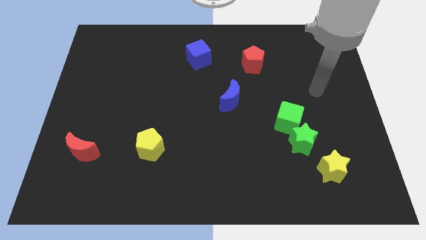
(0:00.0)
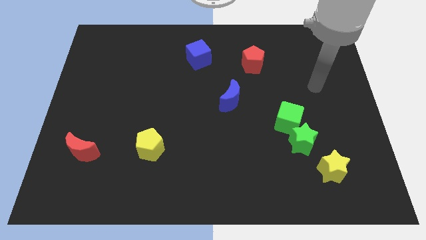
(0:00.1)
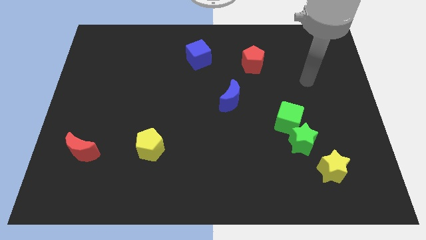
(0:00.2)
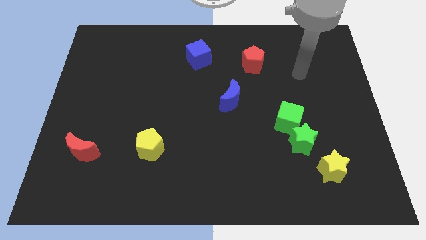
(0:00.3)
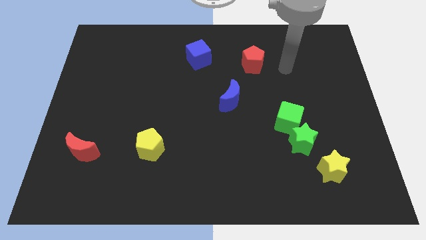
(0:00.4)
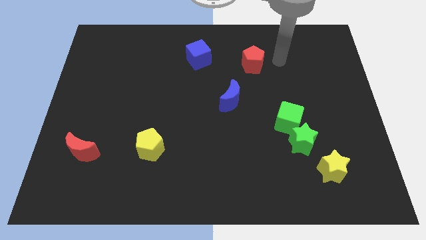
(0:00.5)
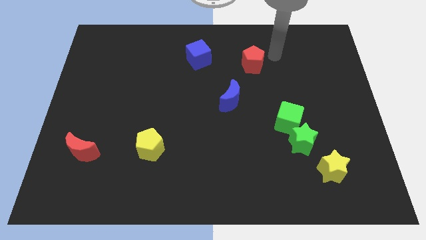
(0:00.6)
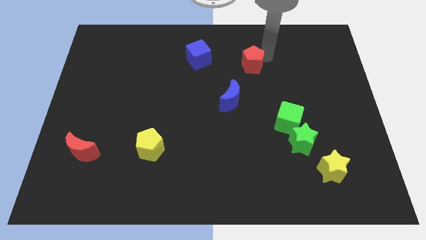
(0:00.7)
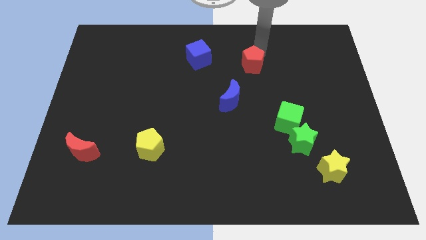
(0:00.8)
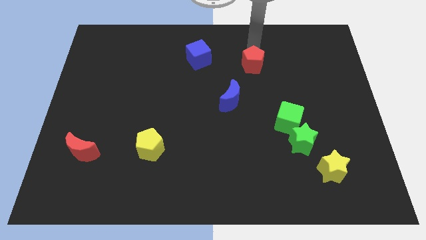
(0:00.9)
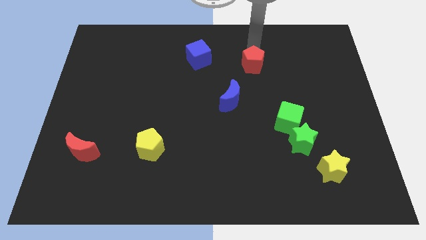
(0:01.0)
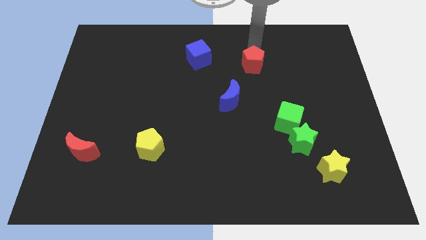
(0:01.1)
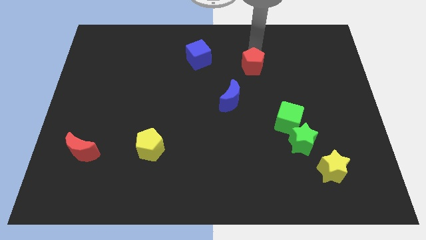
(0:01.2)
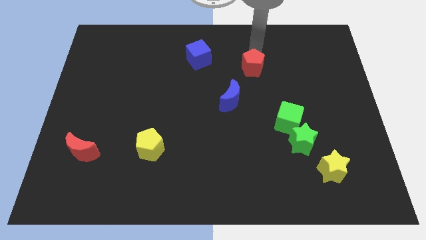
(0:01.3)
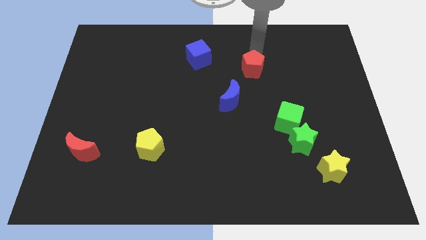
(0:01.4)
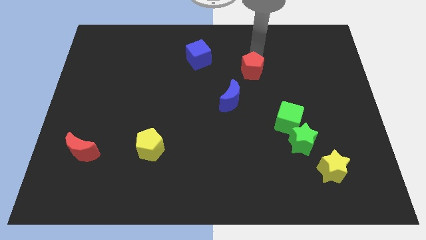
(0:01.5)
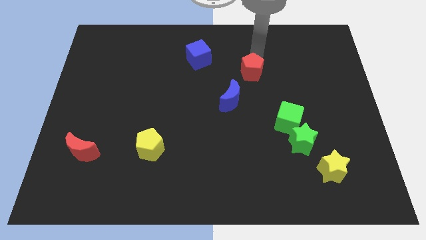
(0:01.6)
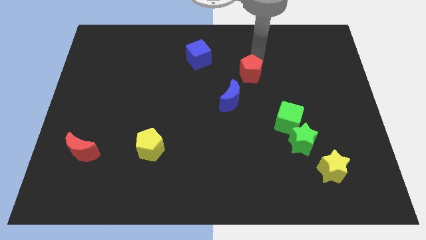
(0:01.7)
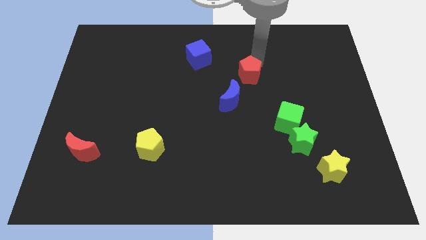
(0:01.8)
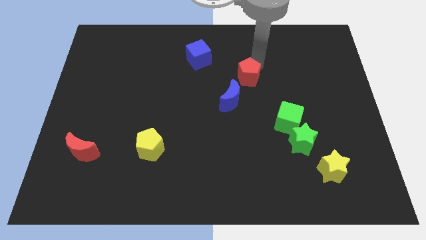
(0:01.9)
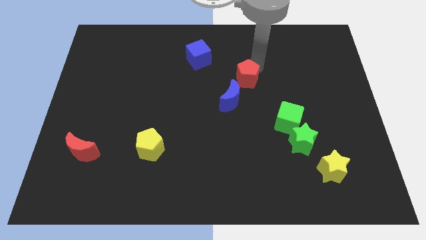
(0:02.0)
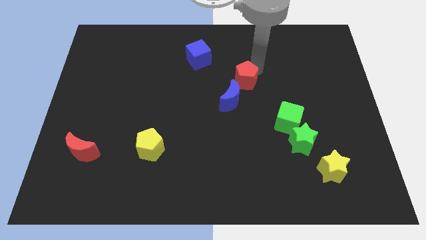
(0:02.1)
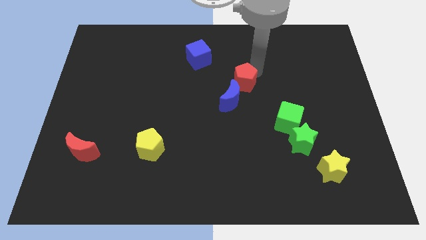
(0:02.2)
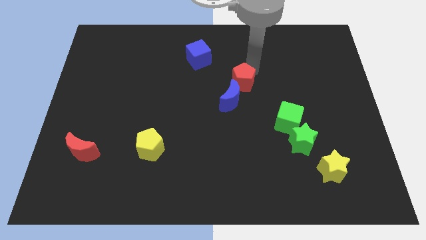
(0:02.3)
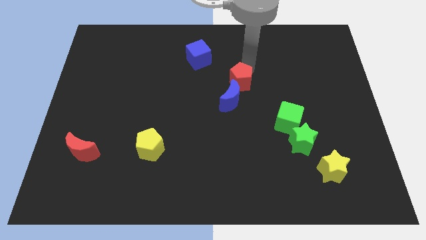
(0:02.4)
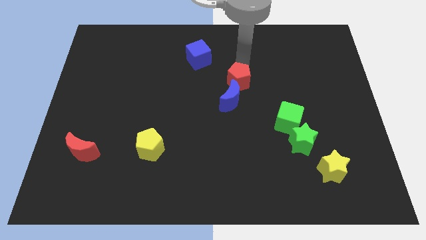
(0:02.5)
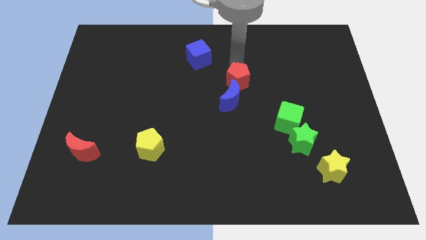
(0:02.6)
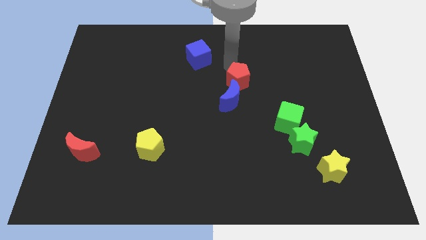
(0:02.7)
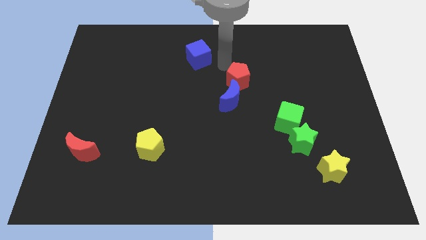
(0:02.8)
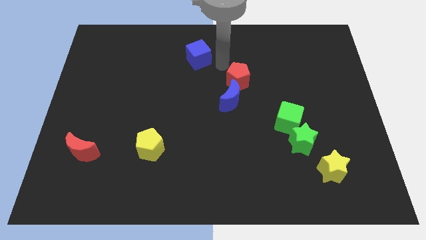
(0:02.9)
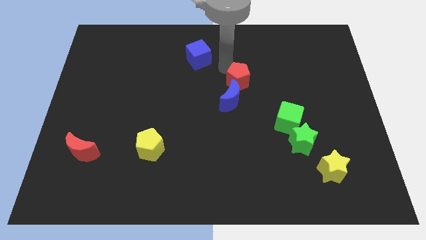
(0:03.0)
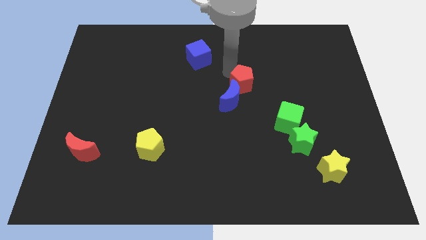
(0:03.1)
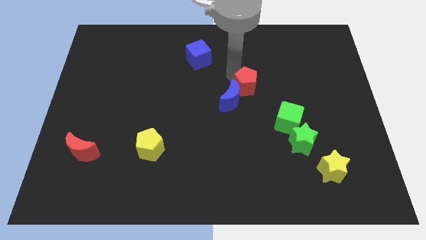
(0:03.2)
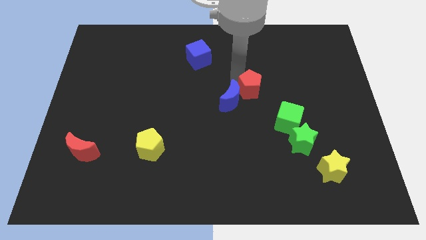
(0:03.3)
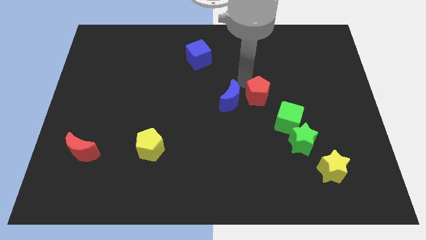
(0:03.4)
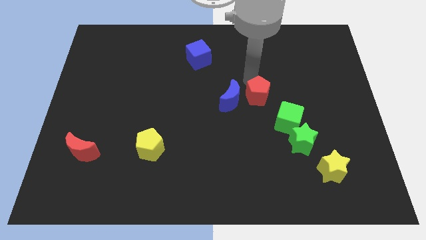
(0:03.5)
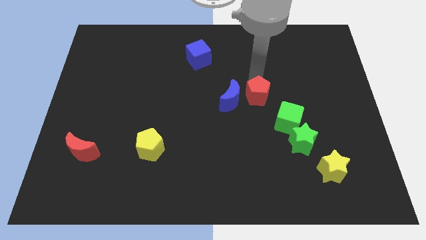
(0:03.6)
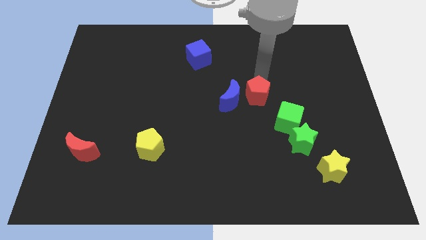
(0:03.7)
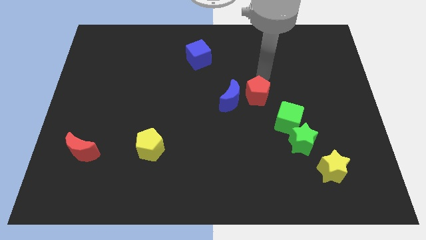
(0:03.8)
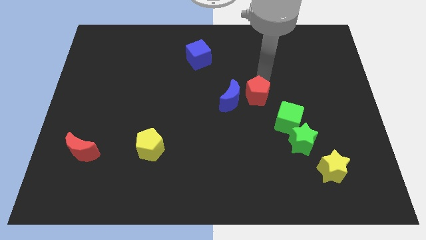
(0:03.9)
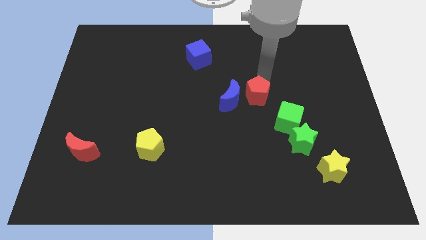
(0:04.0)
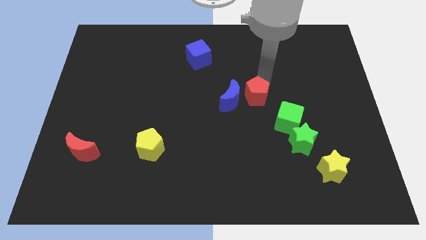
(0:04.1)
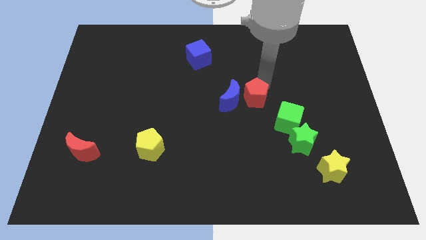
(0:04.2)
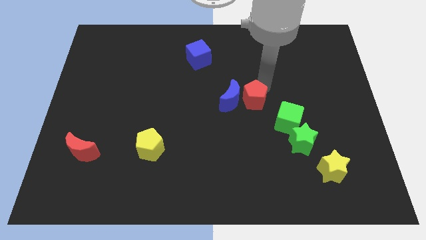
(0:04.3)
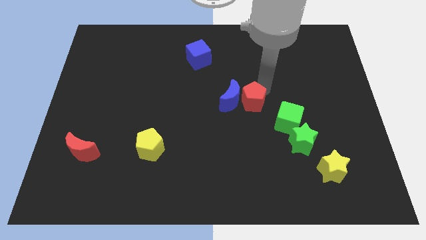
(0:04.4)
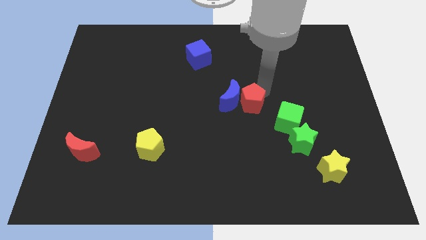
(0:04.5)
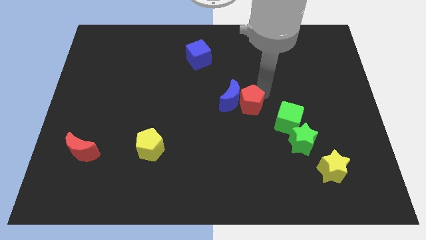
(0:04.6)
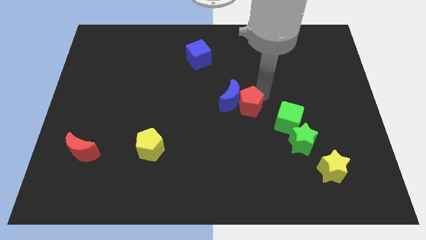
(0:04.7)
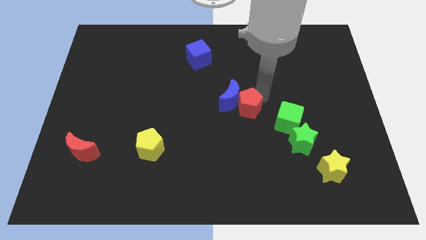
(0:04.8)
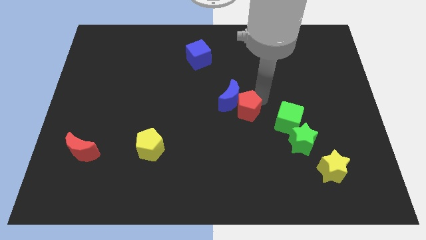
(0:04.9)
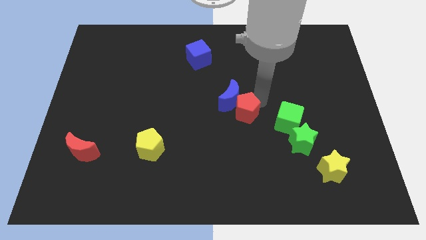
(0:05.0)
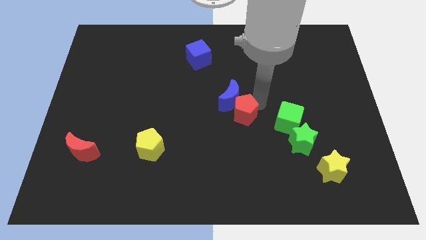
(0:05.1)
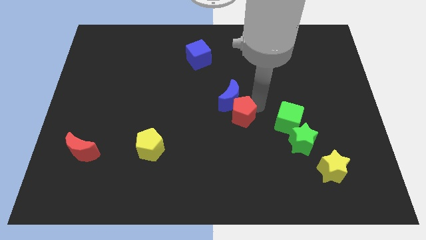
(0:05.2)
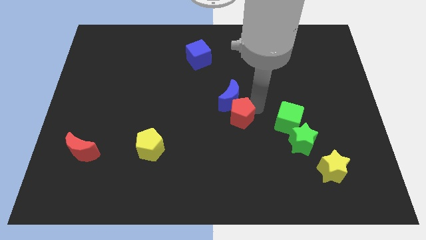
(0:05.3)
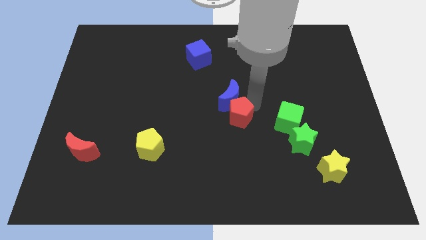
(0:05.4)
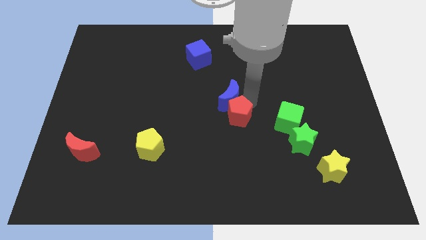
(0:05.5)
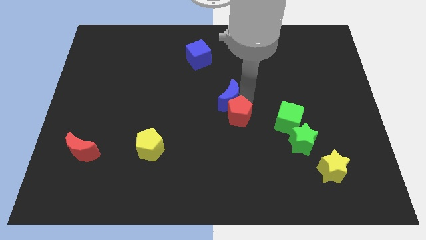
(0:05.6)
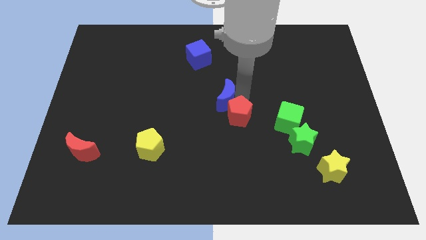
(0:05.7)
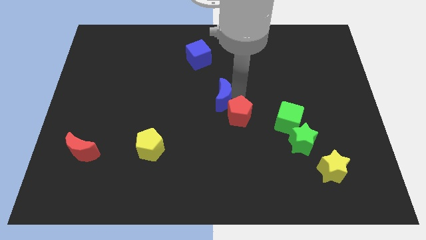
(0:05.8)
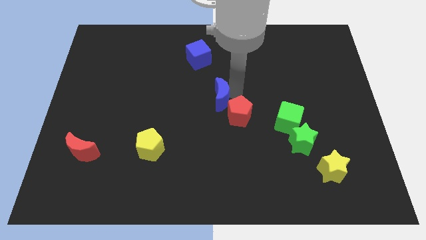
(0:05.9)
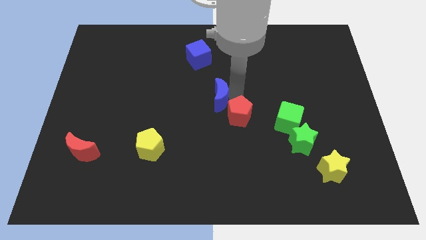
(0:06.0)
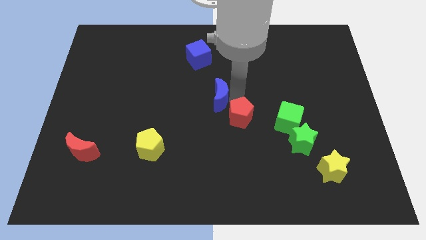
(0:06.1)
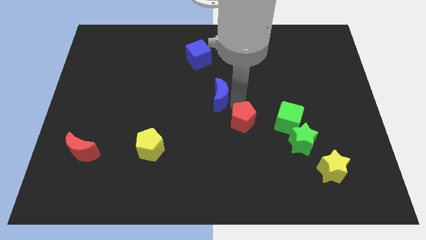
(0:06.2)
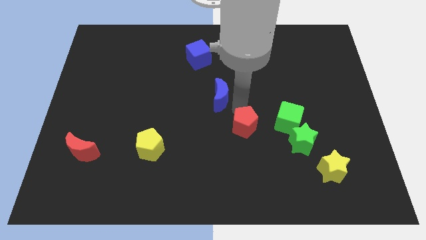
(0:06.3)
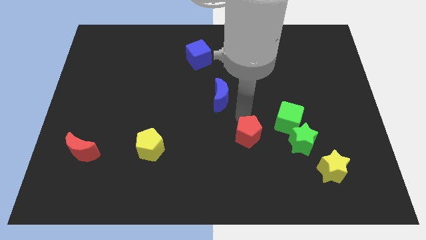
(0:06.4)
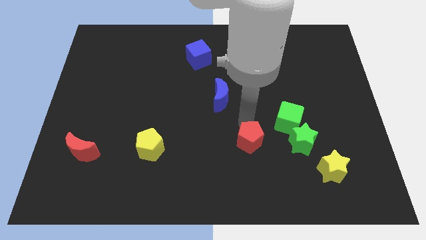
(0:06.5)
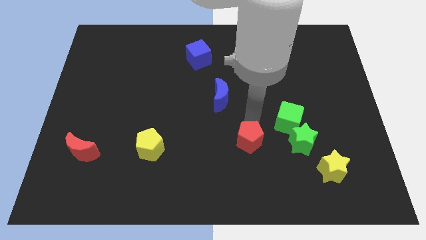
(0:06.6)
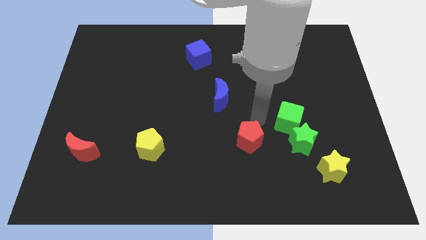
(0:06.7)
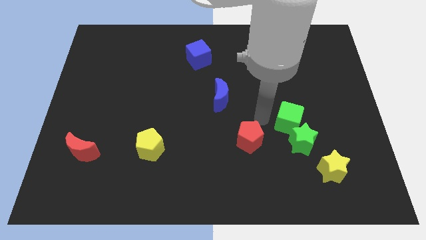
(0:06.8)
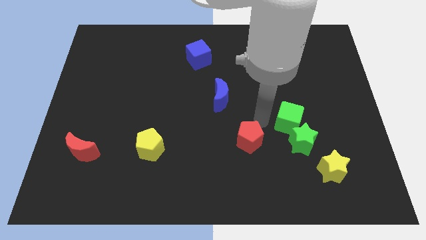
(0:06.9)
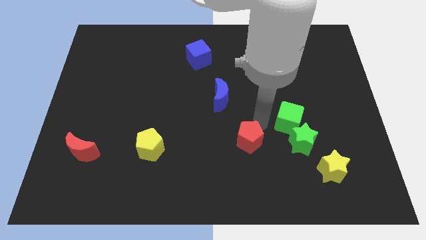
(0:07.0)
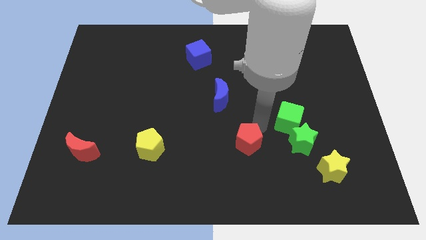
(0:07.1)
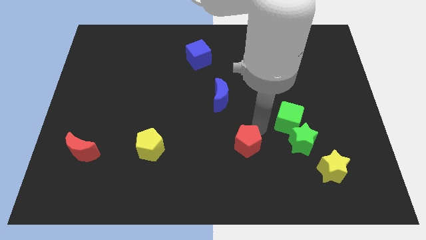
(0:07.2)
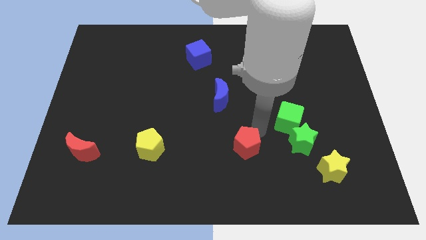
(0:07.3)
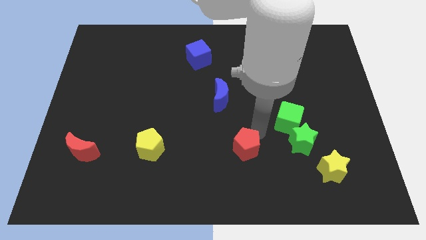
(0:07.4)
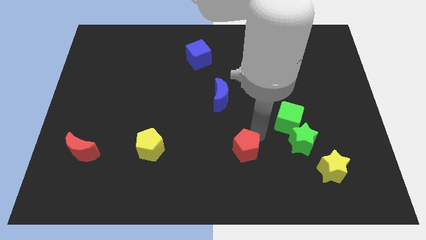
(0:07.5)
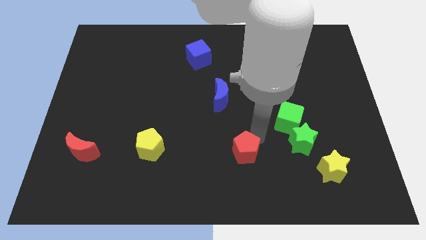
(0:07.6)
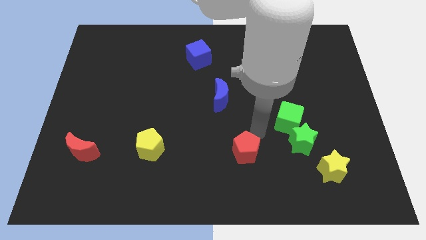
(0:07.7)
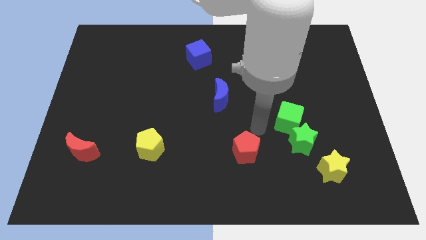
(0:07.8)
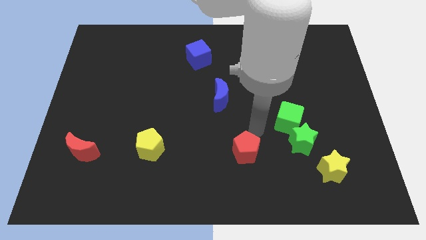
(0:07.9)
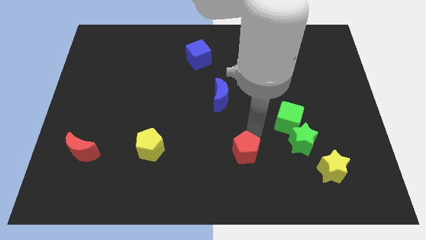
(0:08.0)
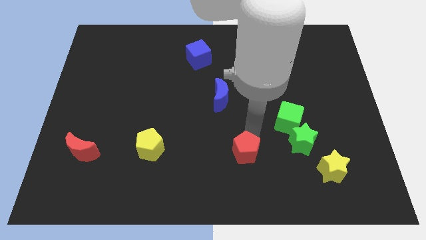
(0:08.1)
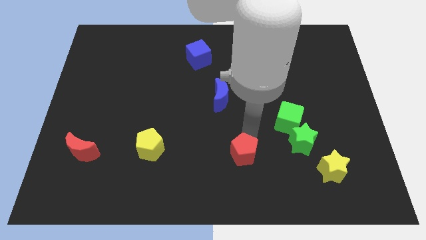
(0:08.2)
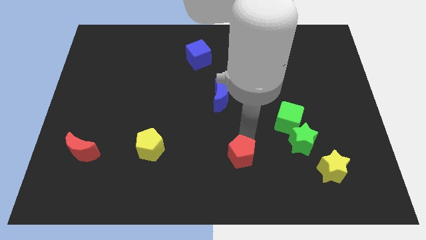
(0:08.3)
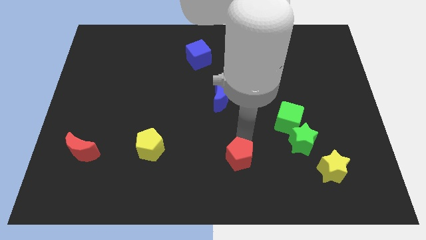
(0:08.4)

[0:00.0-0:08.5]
move the red pentagon to the bottom side
